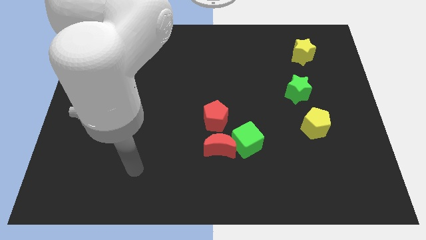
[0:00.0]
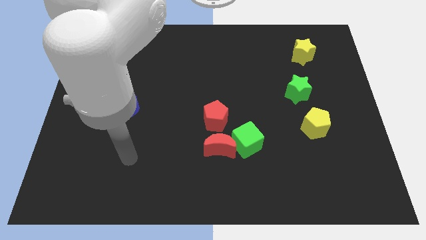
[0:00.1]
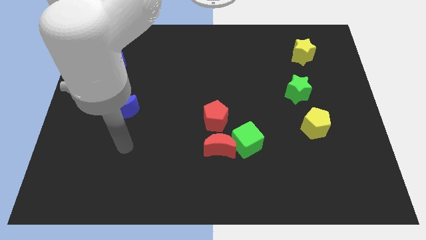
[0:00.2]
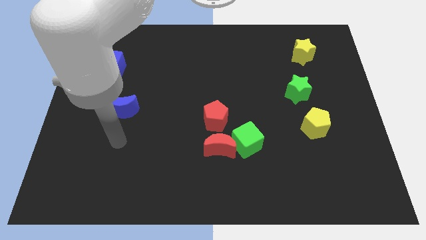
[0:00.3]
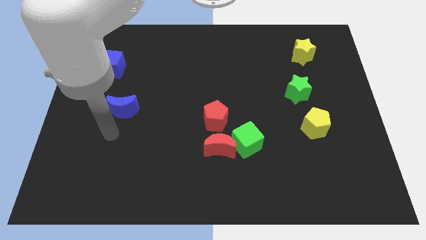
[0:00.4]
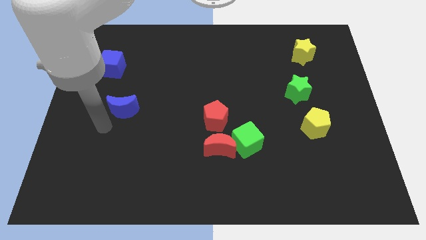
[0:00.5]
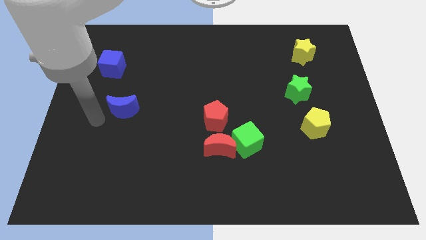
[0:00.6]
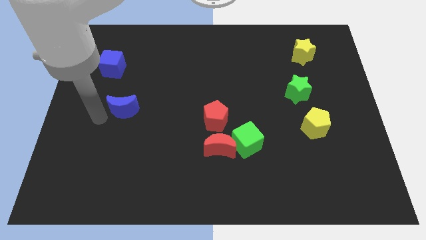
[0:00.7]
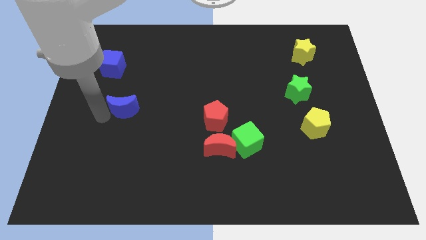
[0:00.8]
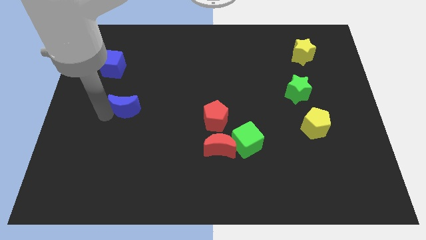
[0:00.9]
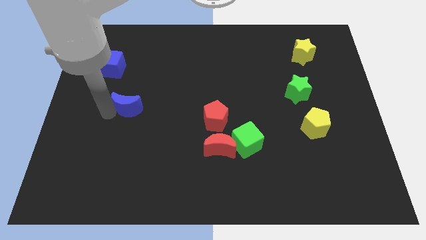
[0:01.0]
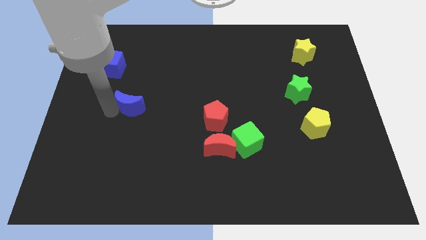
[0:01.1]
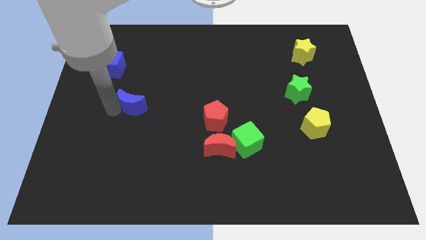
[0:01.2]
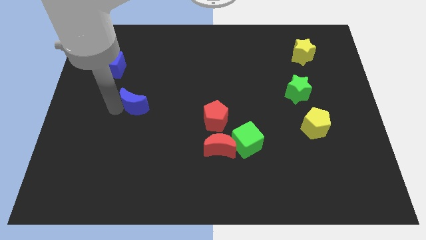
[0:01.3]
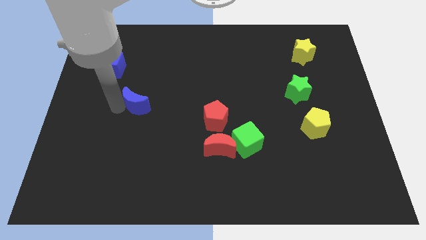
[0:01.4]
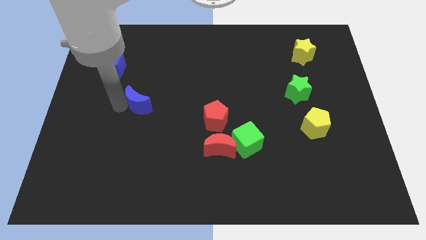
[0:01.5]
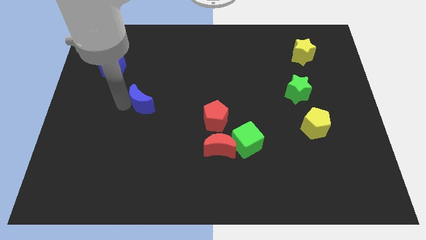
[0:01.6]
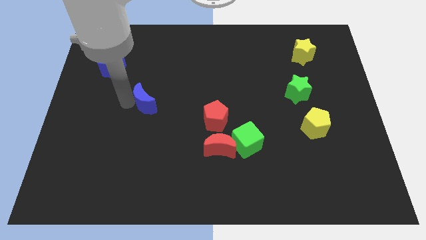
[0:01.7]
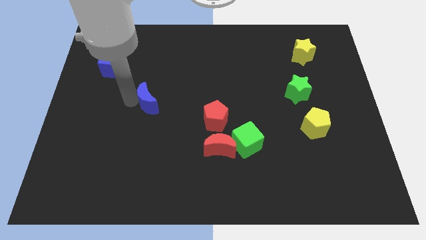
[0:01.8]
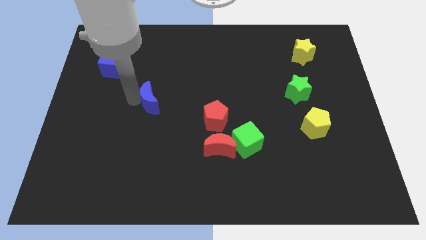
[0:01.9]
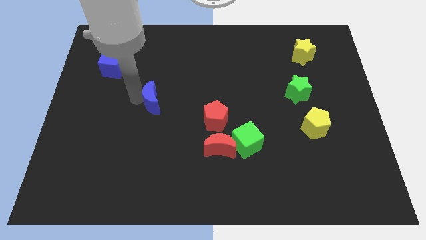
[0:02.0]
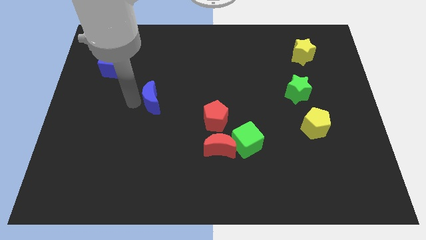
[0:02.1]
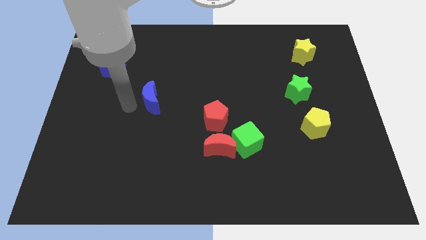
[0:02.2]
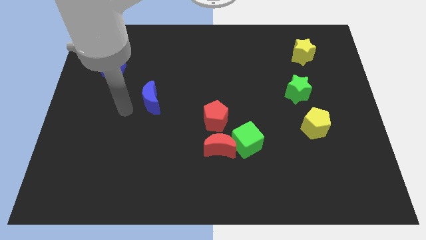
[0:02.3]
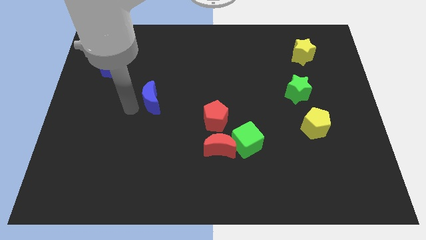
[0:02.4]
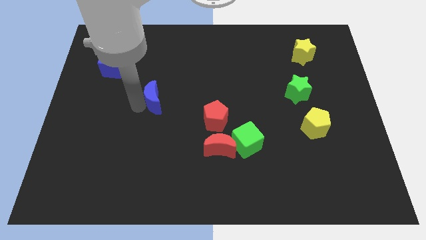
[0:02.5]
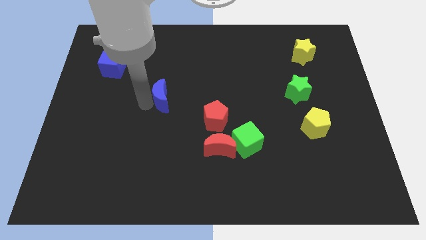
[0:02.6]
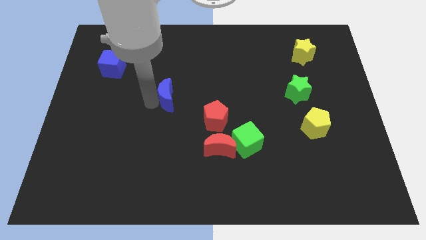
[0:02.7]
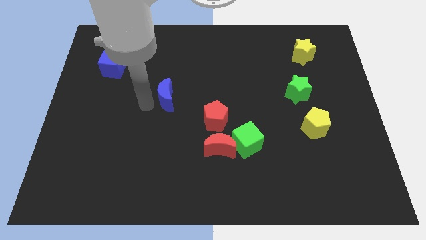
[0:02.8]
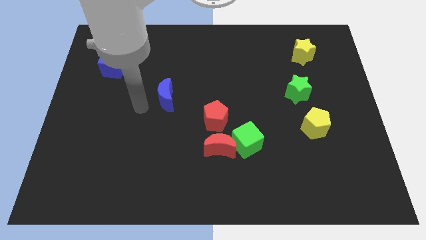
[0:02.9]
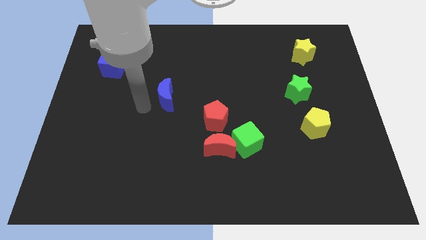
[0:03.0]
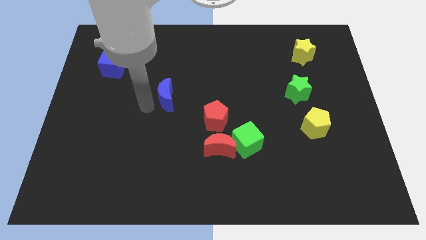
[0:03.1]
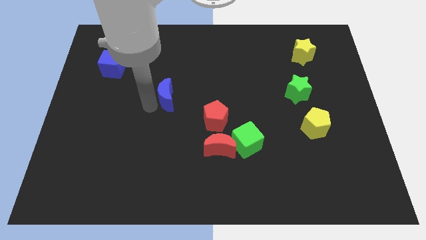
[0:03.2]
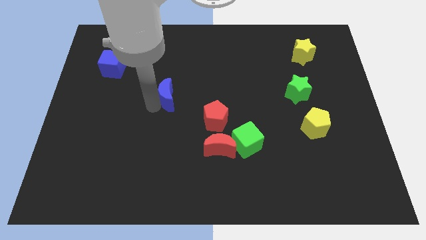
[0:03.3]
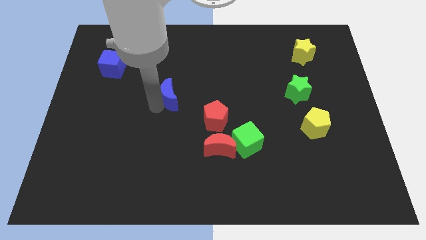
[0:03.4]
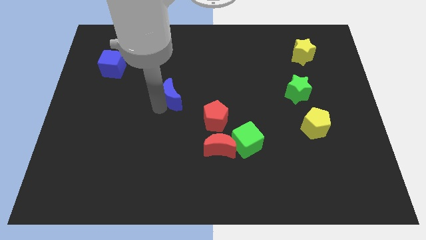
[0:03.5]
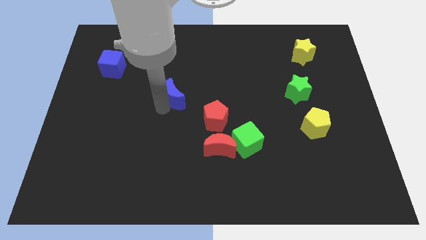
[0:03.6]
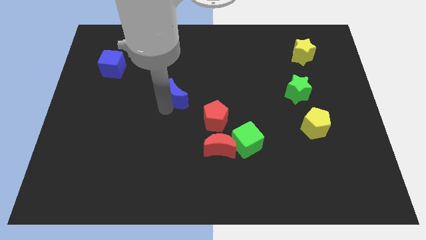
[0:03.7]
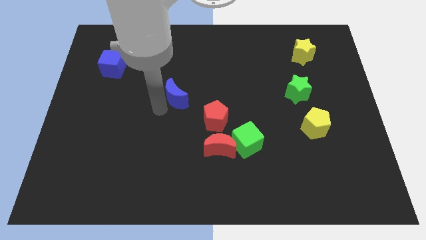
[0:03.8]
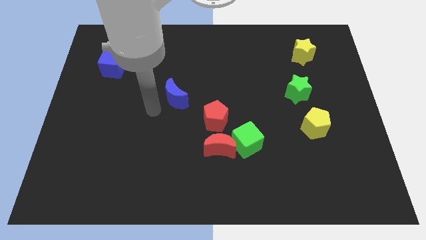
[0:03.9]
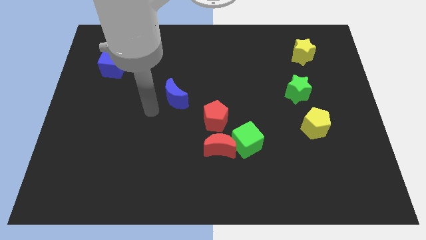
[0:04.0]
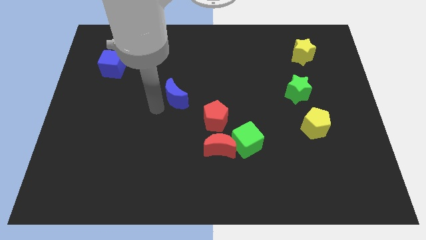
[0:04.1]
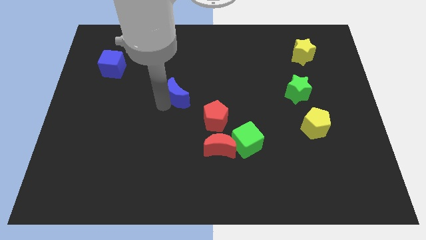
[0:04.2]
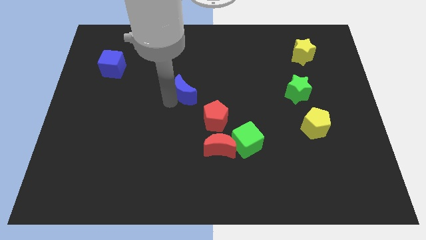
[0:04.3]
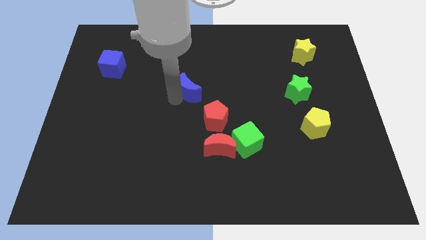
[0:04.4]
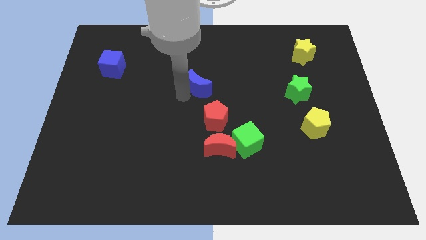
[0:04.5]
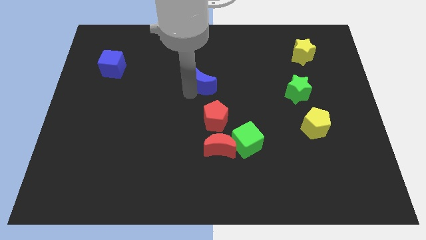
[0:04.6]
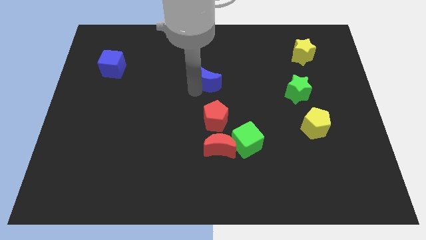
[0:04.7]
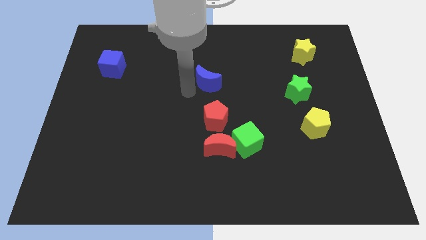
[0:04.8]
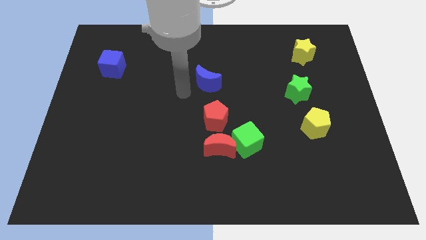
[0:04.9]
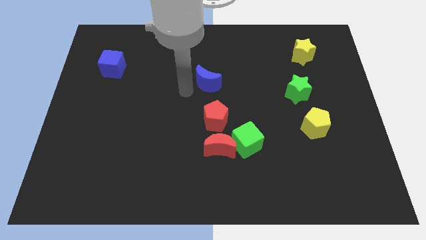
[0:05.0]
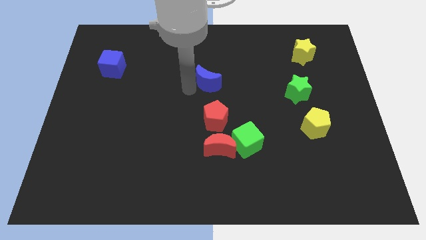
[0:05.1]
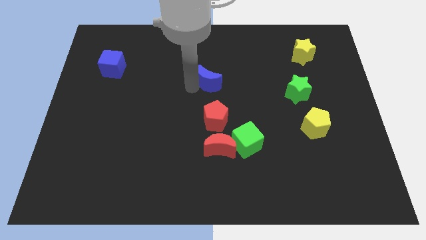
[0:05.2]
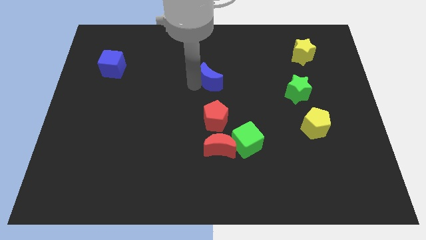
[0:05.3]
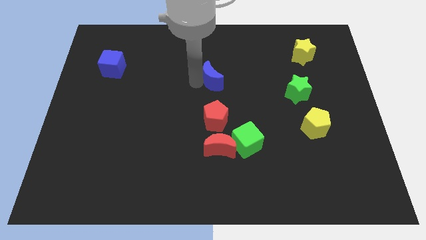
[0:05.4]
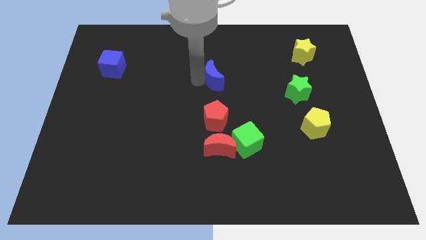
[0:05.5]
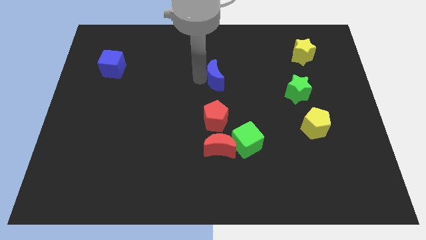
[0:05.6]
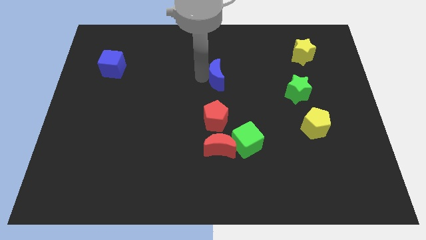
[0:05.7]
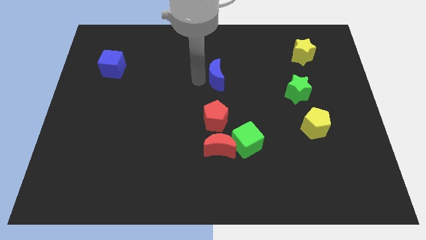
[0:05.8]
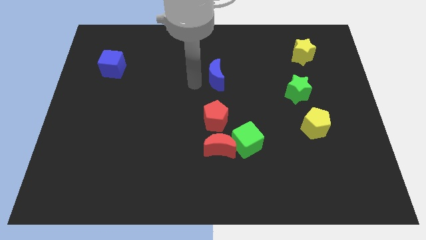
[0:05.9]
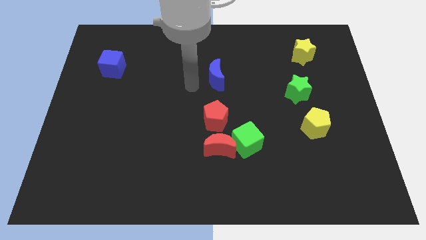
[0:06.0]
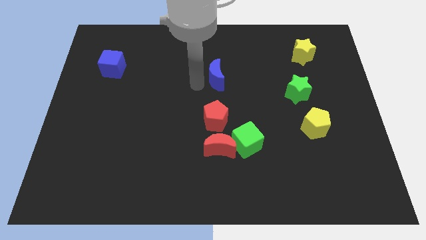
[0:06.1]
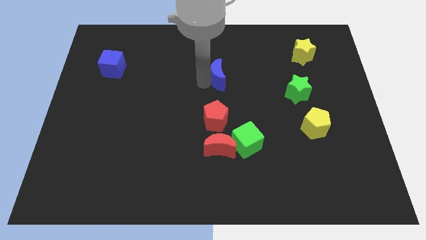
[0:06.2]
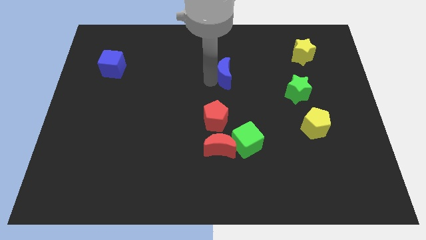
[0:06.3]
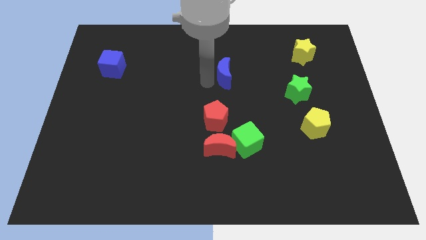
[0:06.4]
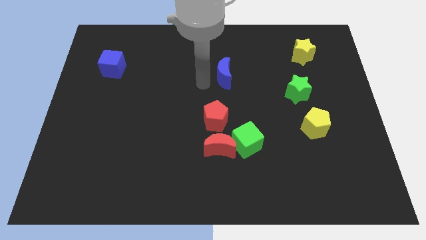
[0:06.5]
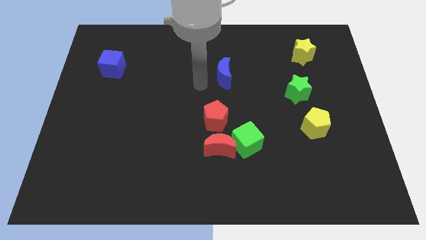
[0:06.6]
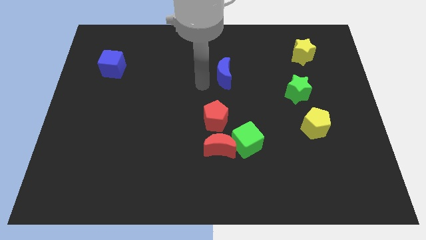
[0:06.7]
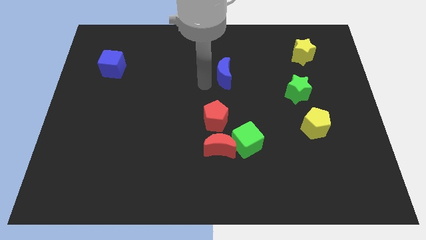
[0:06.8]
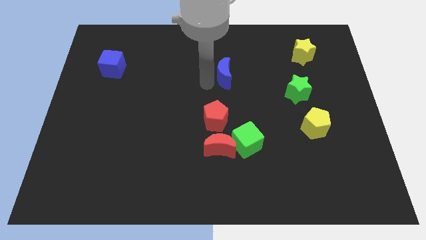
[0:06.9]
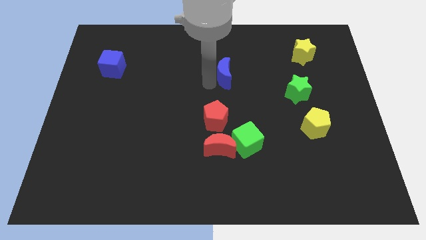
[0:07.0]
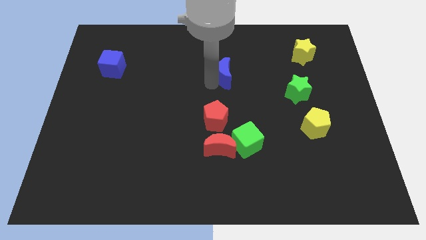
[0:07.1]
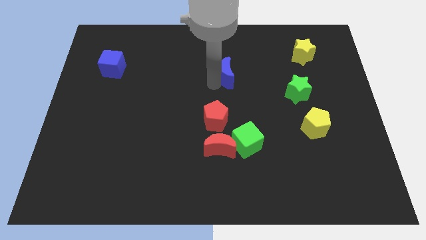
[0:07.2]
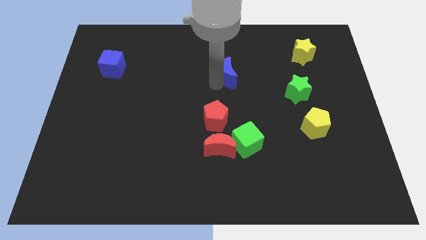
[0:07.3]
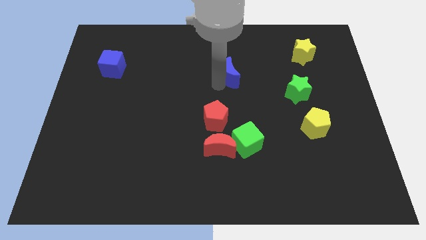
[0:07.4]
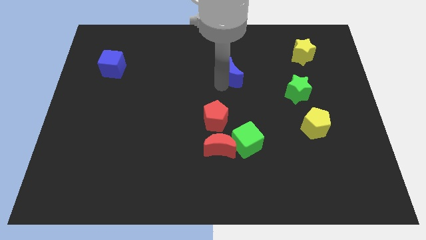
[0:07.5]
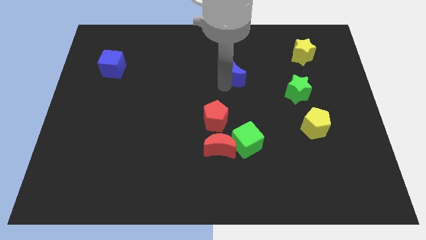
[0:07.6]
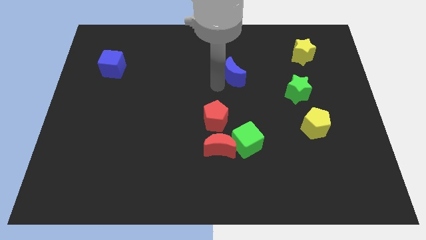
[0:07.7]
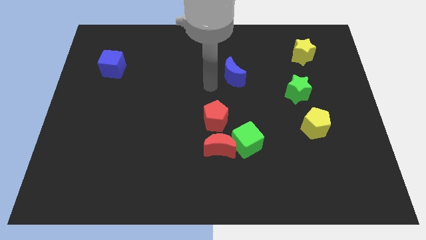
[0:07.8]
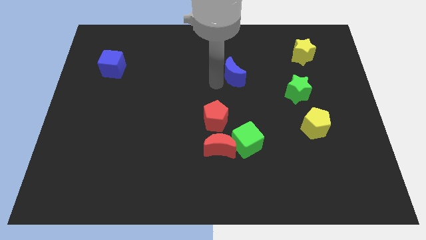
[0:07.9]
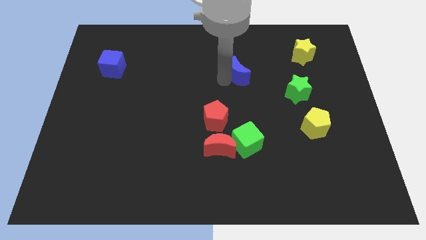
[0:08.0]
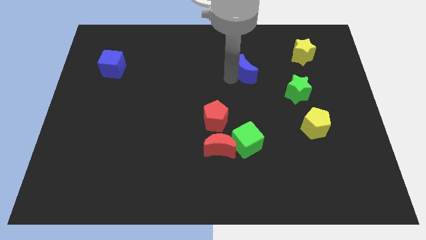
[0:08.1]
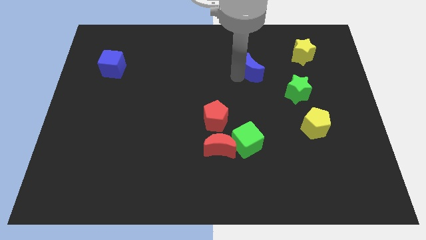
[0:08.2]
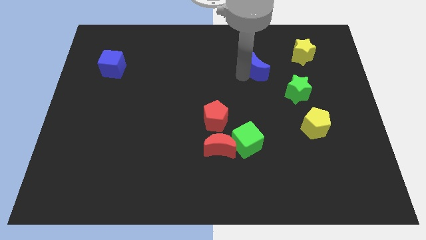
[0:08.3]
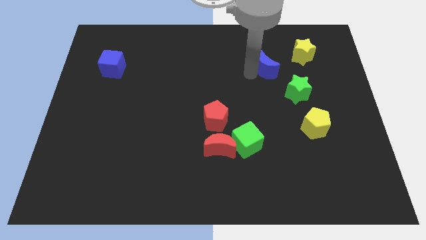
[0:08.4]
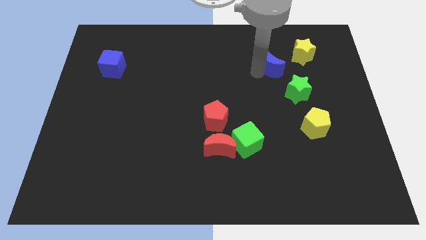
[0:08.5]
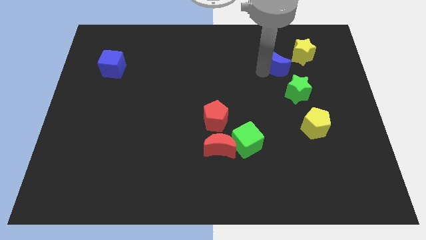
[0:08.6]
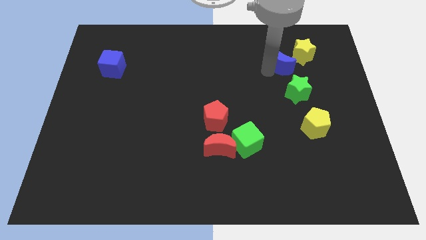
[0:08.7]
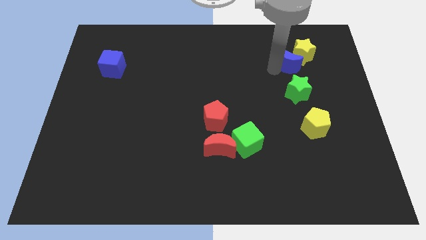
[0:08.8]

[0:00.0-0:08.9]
move the blue moon to the yellow star
